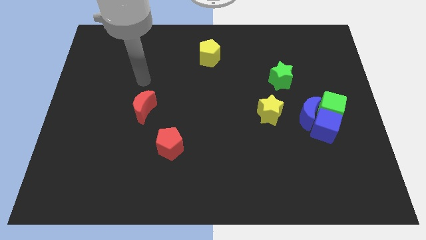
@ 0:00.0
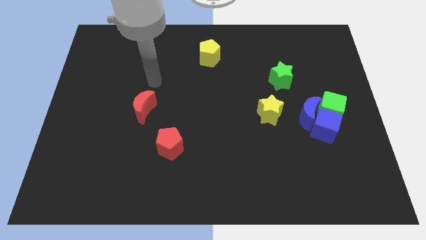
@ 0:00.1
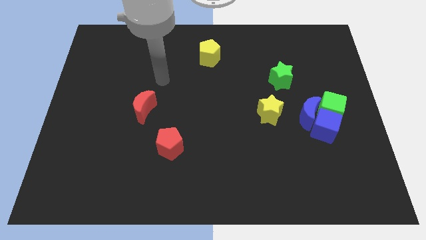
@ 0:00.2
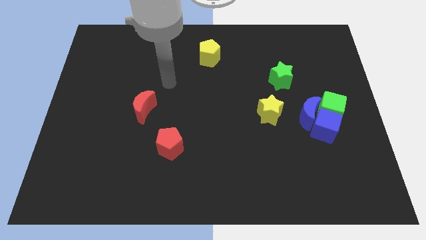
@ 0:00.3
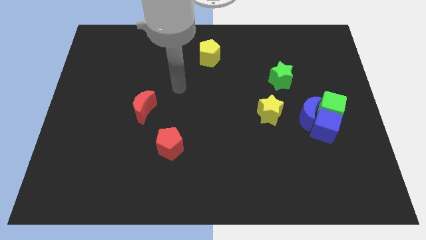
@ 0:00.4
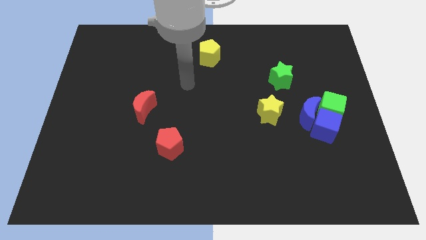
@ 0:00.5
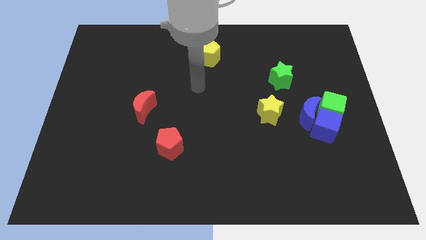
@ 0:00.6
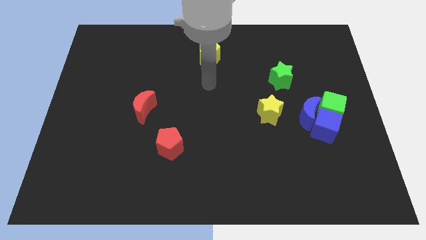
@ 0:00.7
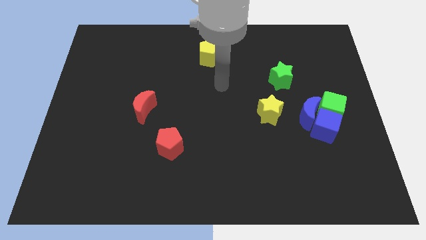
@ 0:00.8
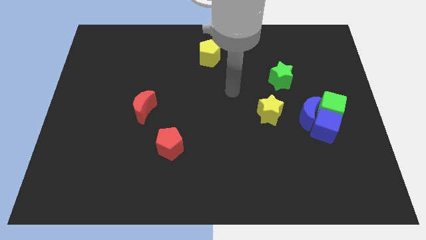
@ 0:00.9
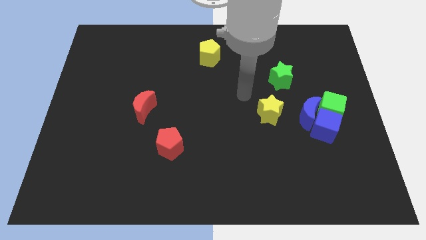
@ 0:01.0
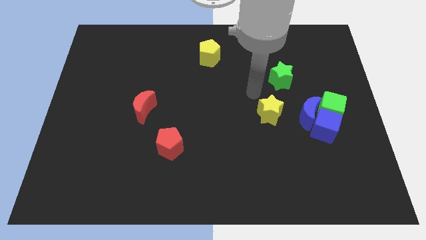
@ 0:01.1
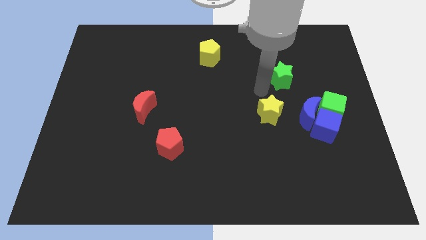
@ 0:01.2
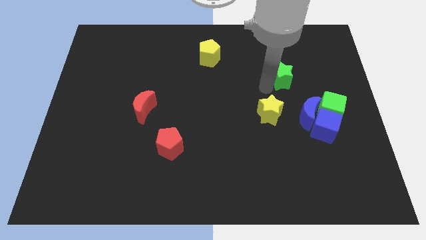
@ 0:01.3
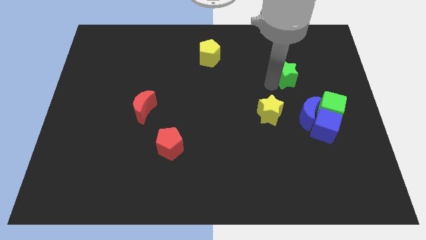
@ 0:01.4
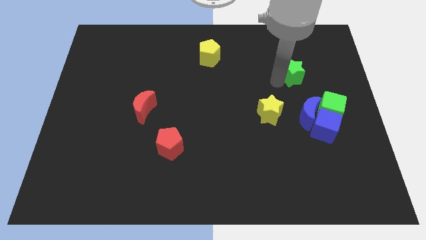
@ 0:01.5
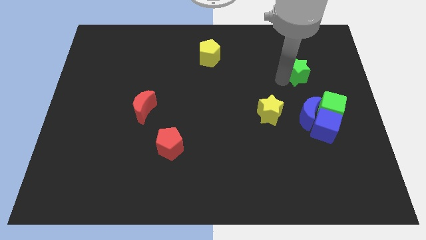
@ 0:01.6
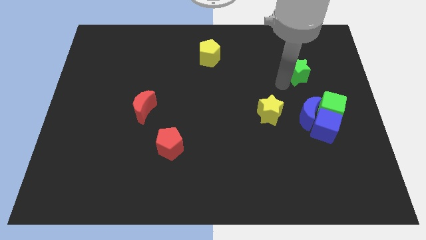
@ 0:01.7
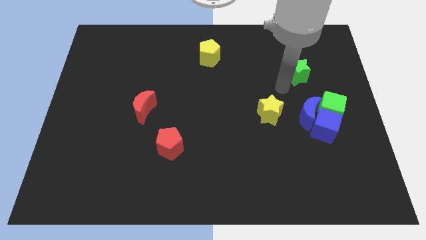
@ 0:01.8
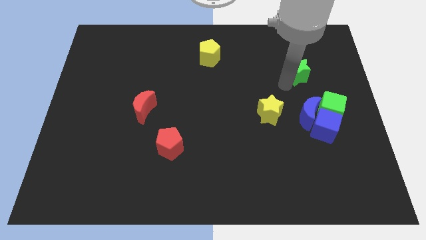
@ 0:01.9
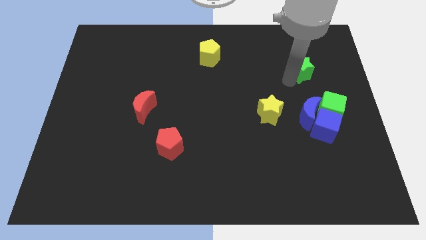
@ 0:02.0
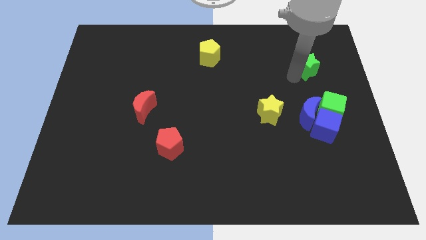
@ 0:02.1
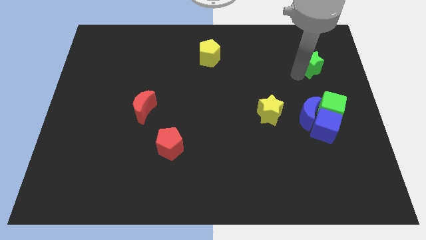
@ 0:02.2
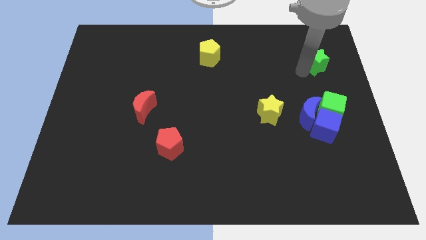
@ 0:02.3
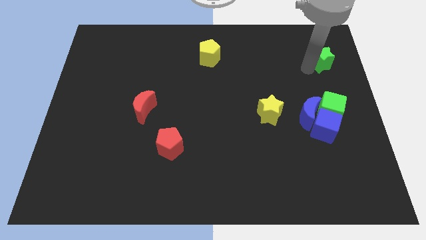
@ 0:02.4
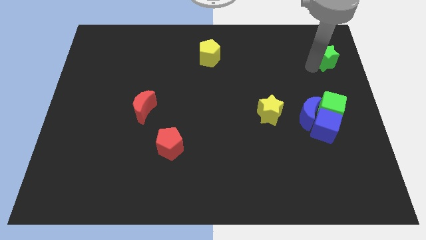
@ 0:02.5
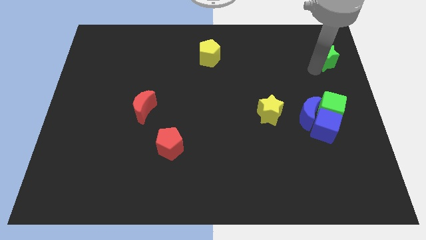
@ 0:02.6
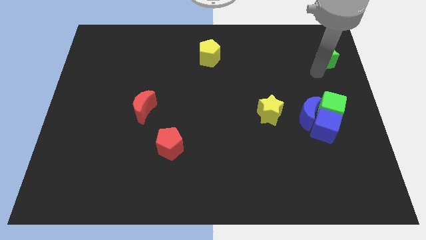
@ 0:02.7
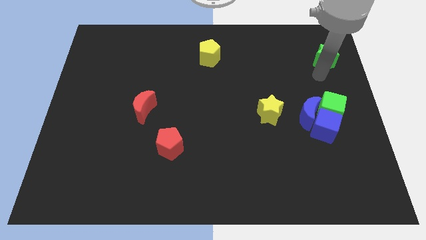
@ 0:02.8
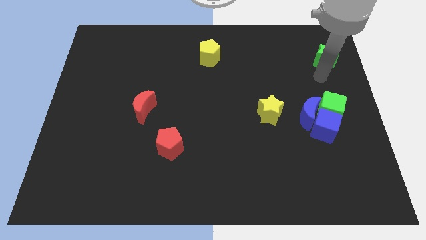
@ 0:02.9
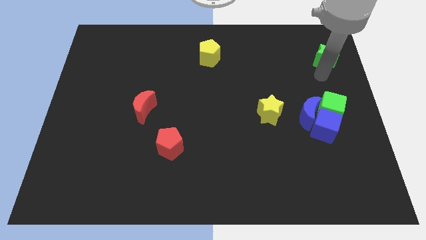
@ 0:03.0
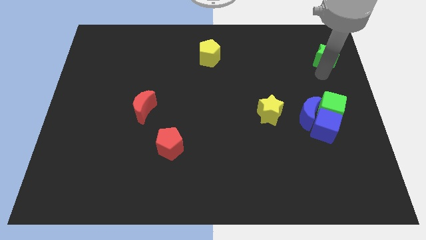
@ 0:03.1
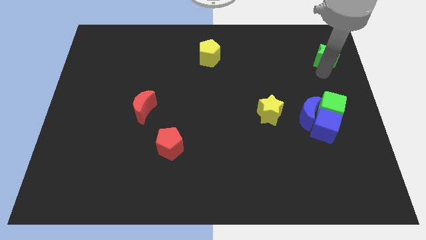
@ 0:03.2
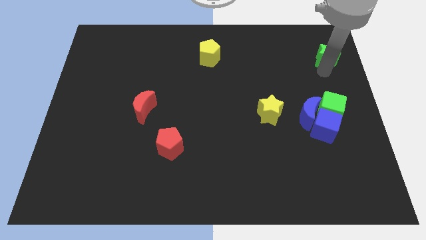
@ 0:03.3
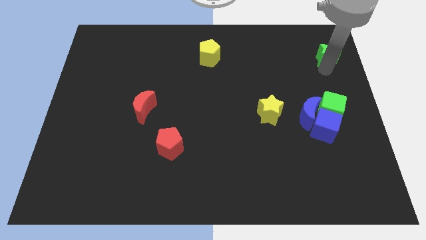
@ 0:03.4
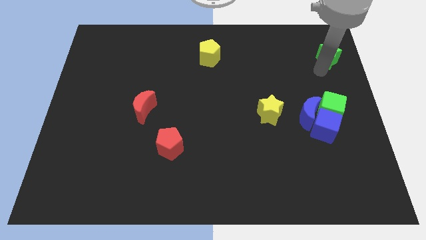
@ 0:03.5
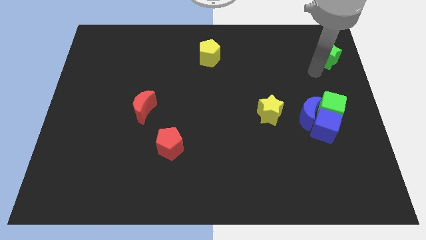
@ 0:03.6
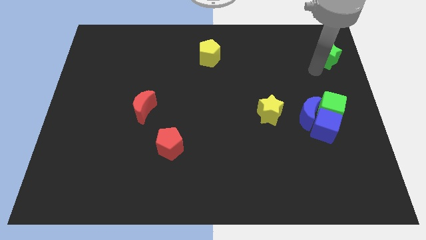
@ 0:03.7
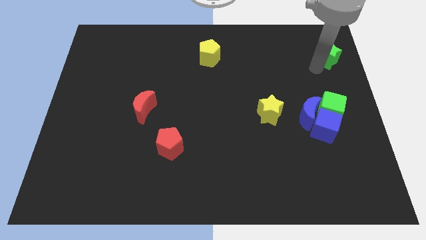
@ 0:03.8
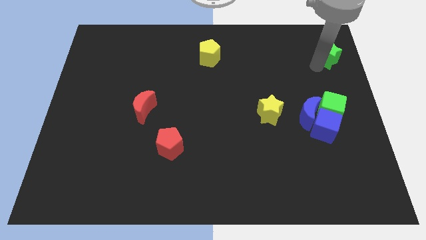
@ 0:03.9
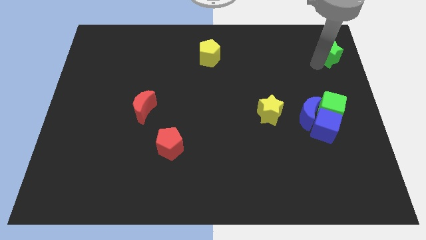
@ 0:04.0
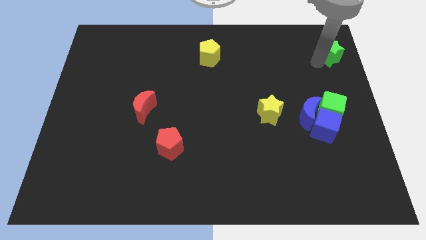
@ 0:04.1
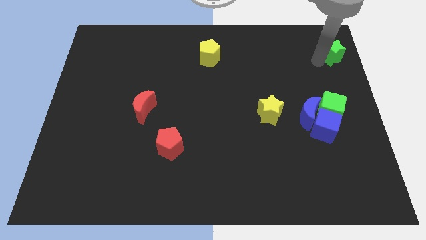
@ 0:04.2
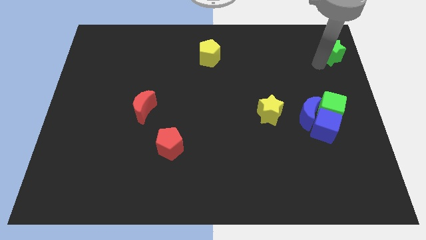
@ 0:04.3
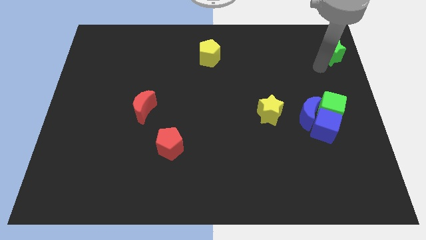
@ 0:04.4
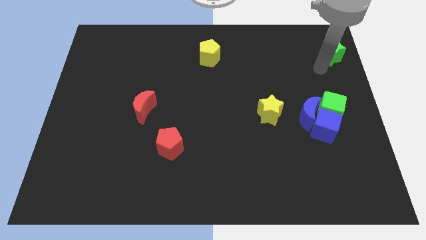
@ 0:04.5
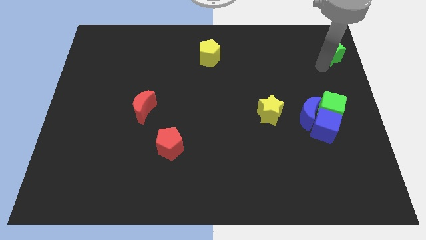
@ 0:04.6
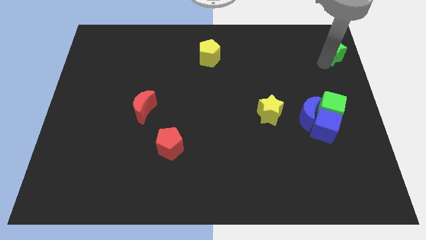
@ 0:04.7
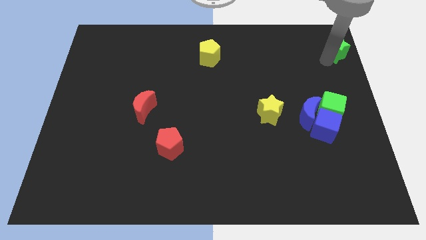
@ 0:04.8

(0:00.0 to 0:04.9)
move the green star to the top right

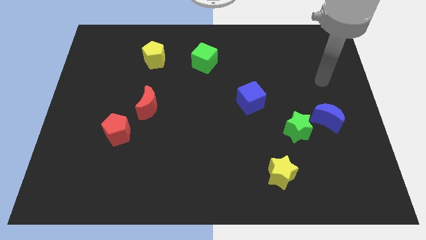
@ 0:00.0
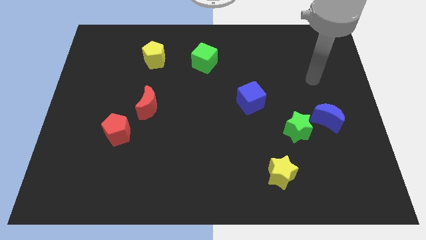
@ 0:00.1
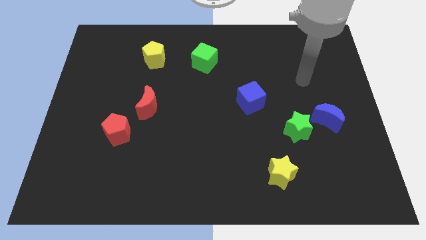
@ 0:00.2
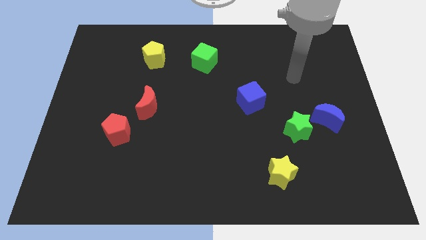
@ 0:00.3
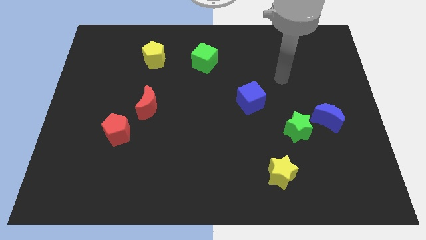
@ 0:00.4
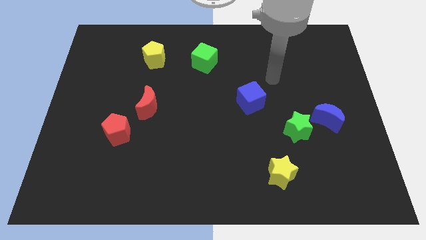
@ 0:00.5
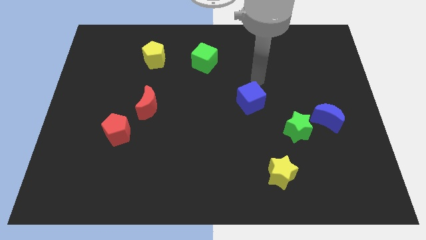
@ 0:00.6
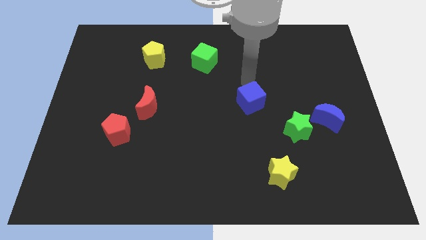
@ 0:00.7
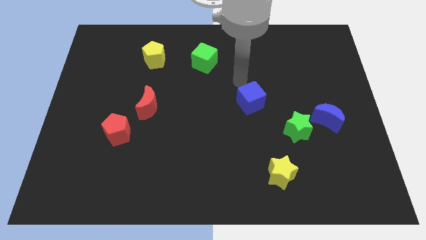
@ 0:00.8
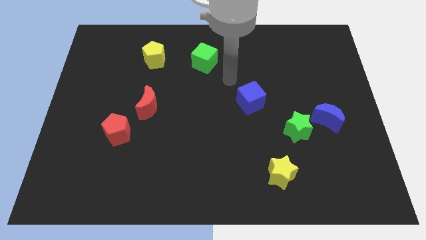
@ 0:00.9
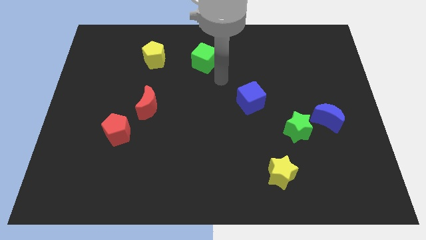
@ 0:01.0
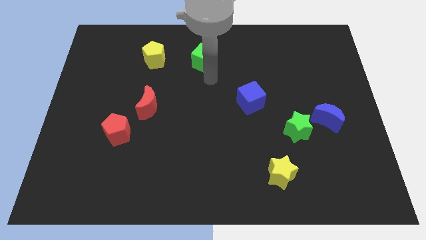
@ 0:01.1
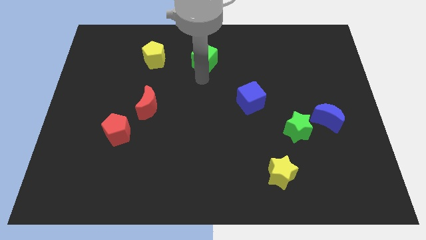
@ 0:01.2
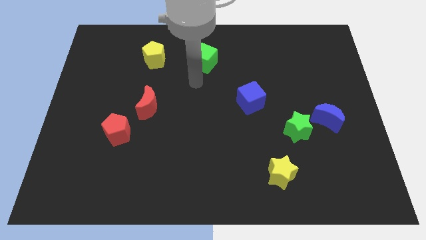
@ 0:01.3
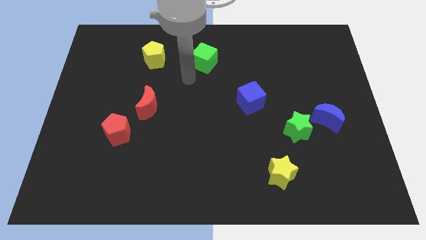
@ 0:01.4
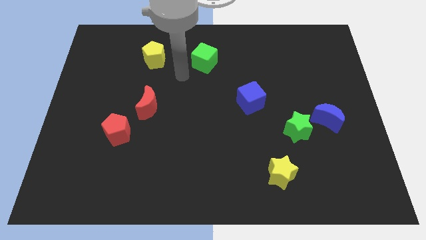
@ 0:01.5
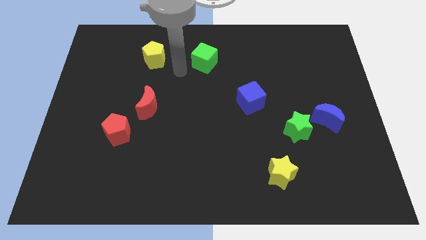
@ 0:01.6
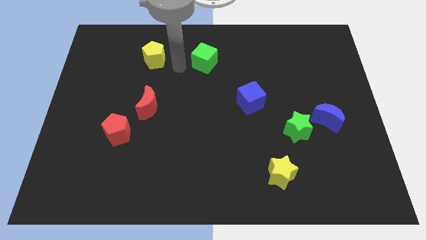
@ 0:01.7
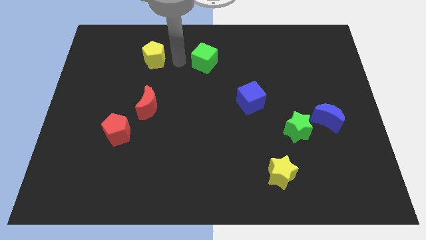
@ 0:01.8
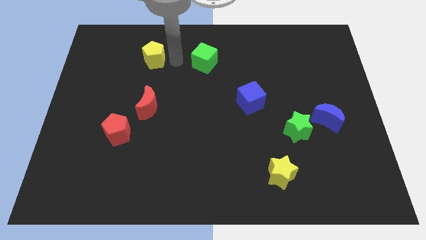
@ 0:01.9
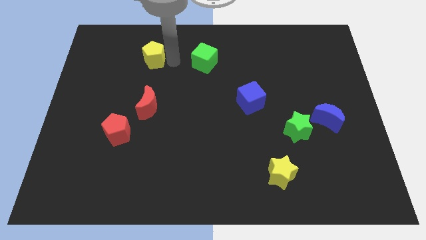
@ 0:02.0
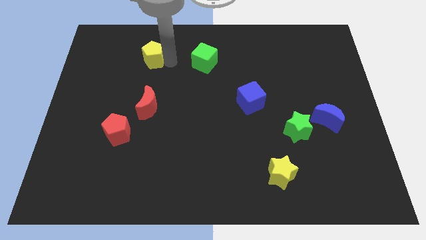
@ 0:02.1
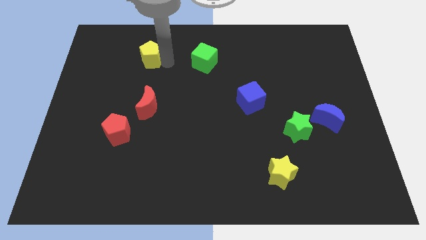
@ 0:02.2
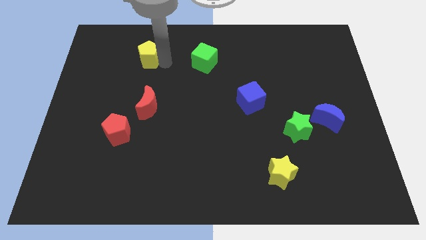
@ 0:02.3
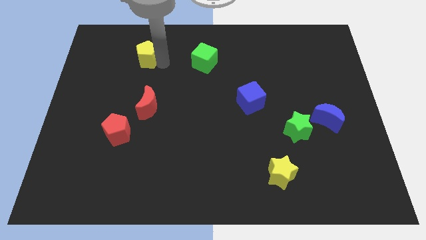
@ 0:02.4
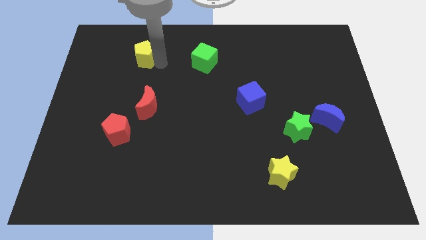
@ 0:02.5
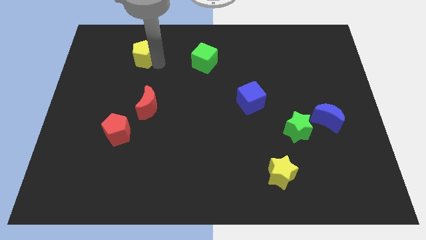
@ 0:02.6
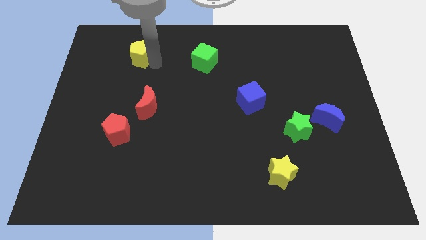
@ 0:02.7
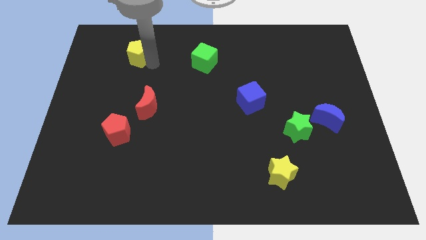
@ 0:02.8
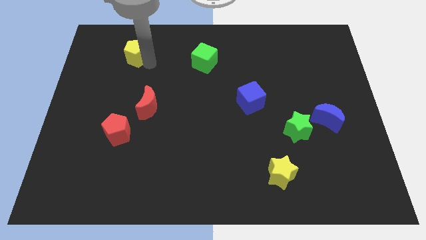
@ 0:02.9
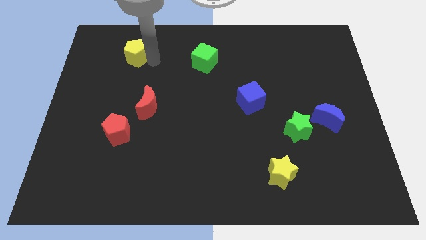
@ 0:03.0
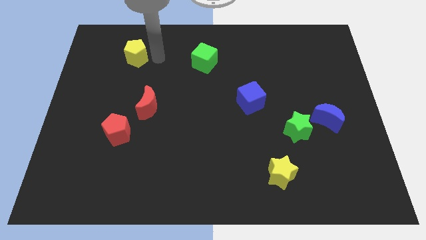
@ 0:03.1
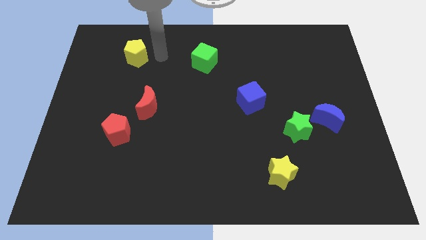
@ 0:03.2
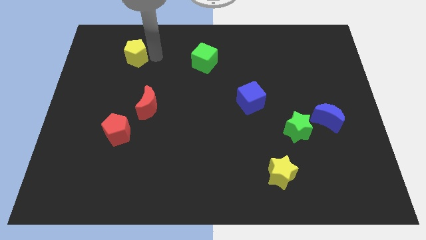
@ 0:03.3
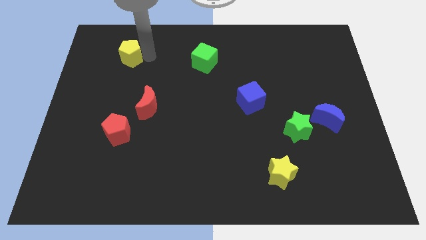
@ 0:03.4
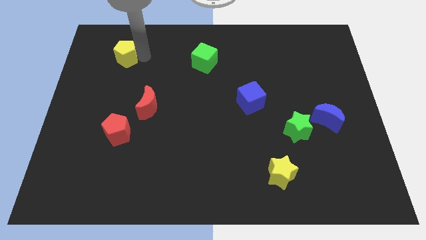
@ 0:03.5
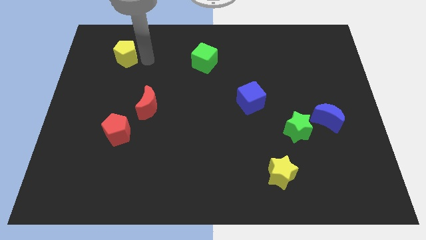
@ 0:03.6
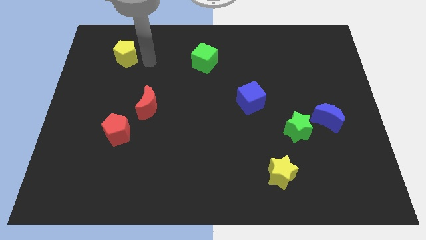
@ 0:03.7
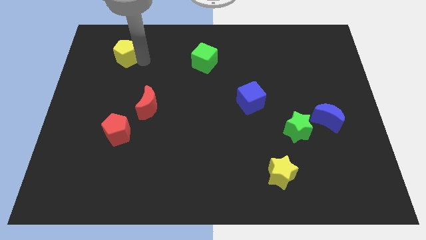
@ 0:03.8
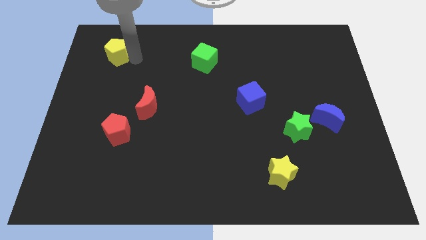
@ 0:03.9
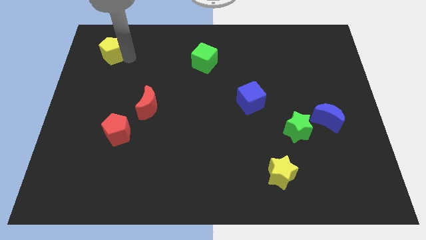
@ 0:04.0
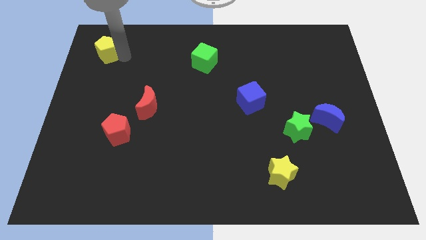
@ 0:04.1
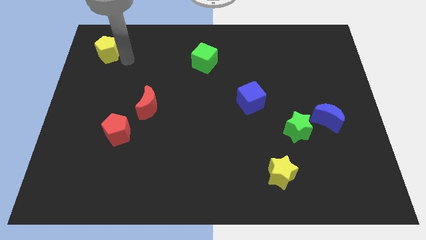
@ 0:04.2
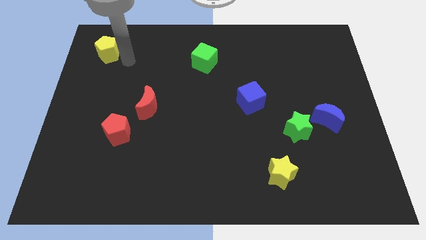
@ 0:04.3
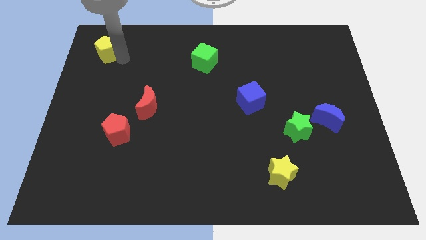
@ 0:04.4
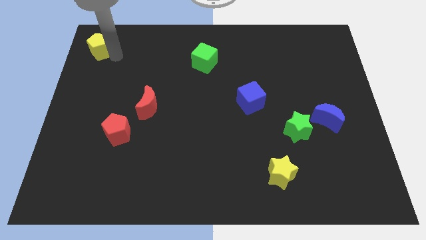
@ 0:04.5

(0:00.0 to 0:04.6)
slide the yellow pentagon to the top left corner
